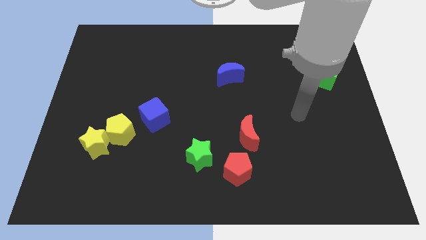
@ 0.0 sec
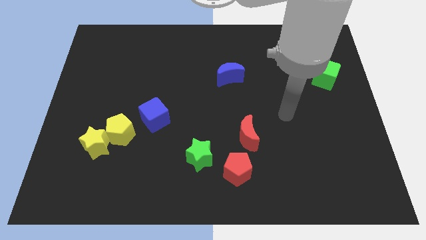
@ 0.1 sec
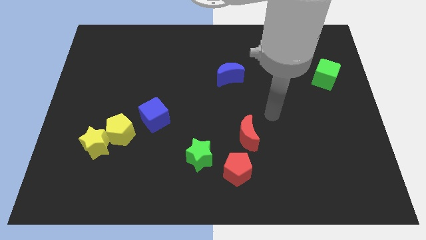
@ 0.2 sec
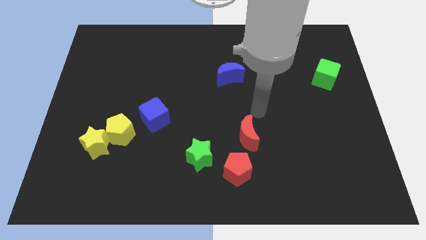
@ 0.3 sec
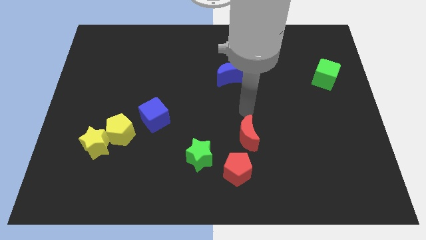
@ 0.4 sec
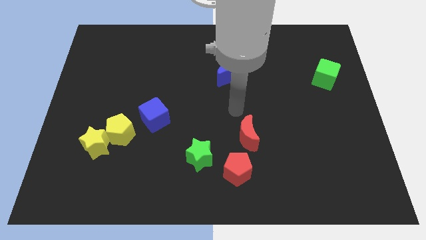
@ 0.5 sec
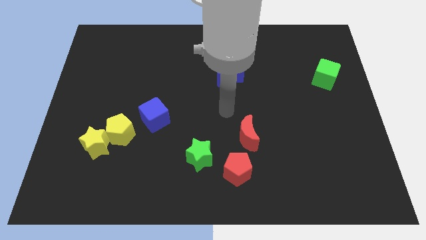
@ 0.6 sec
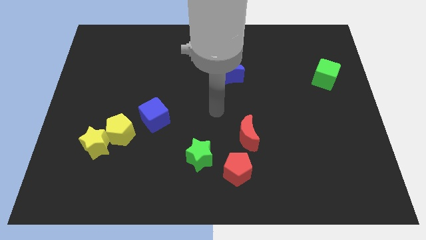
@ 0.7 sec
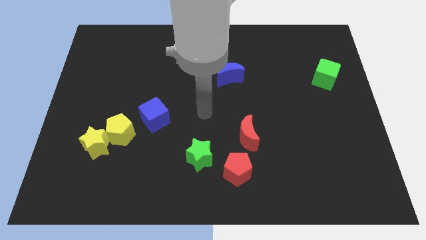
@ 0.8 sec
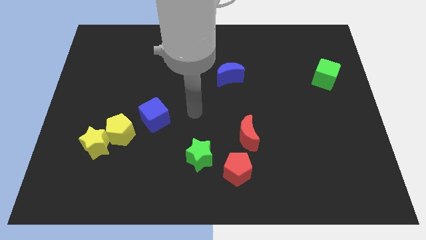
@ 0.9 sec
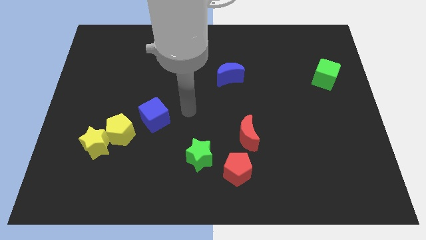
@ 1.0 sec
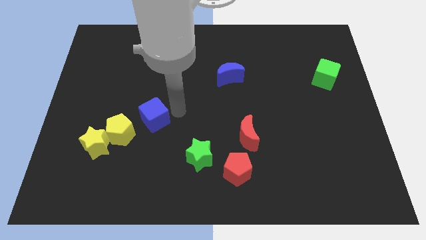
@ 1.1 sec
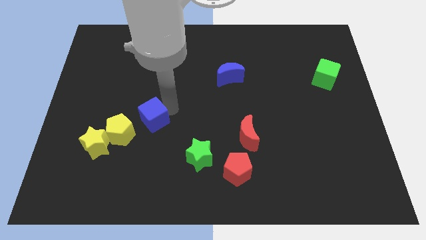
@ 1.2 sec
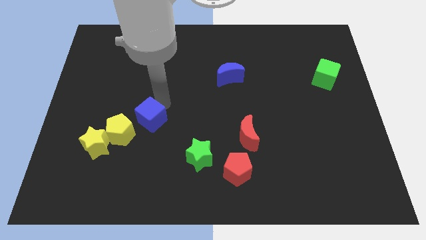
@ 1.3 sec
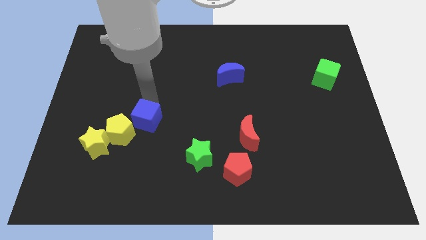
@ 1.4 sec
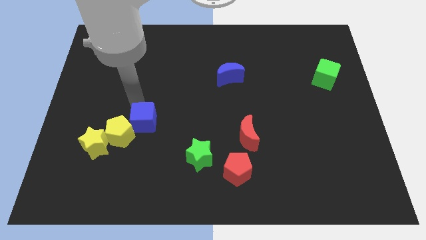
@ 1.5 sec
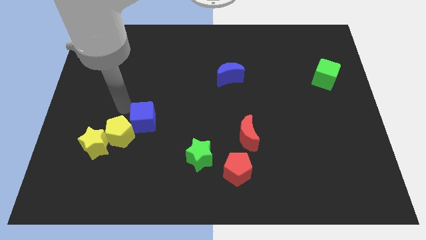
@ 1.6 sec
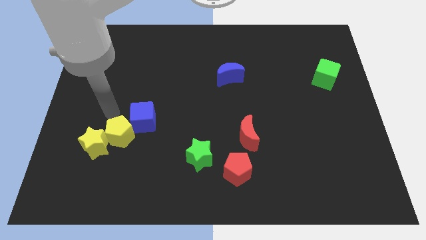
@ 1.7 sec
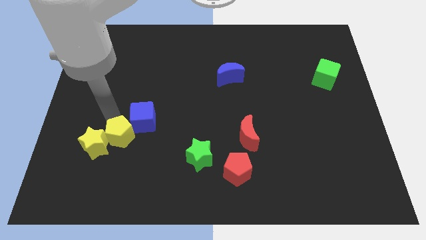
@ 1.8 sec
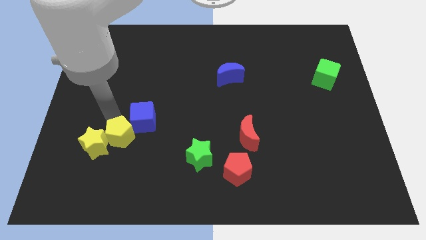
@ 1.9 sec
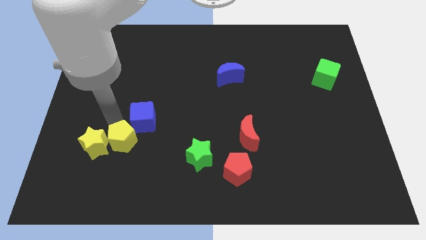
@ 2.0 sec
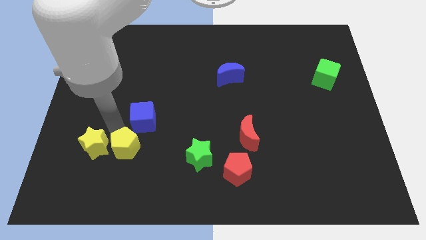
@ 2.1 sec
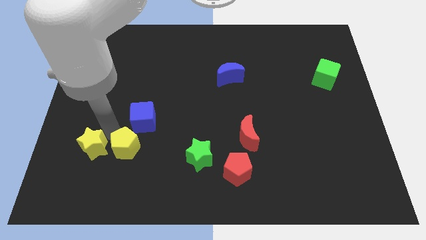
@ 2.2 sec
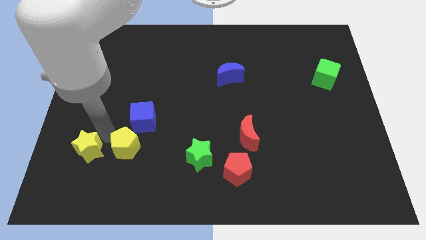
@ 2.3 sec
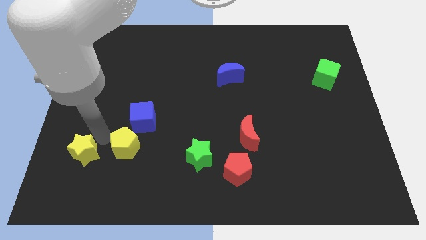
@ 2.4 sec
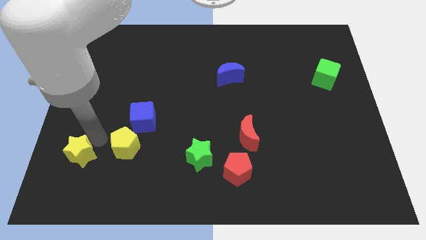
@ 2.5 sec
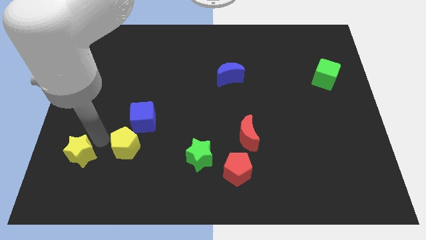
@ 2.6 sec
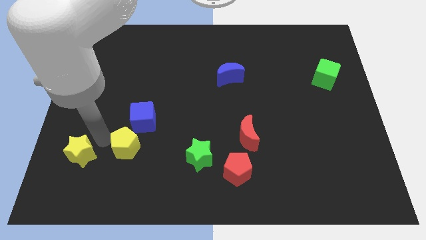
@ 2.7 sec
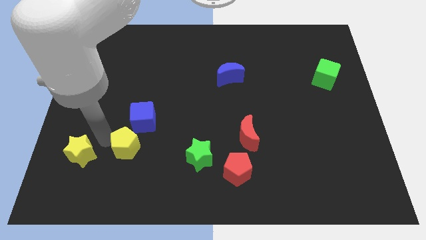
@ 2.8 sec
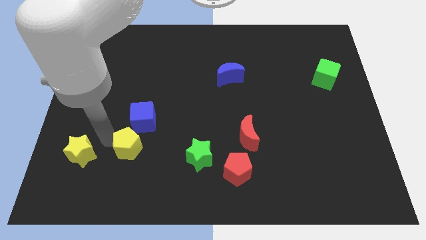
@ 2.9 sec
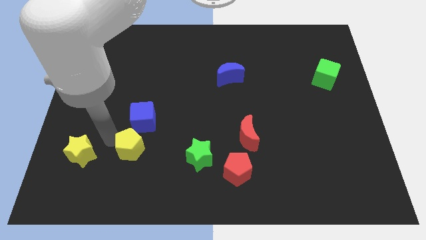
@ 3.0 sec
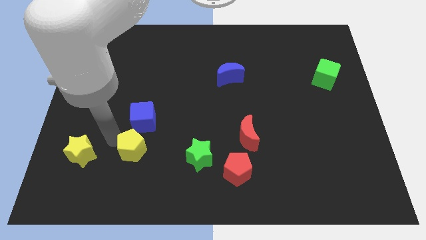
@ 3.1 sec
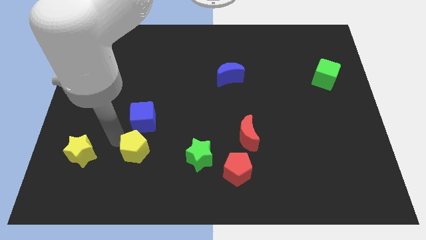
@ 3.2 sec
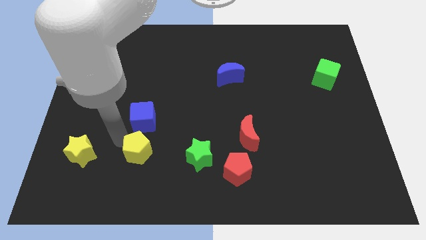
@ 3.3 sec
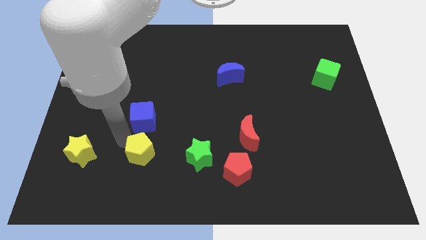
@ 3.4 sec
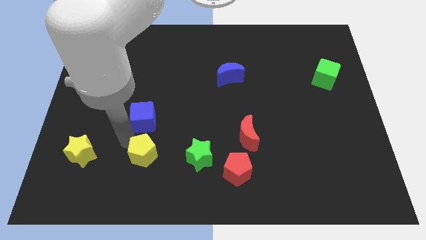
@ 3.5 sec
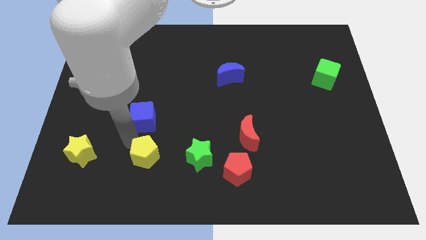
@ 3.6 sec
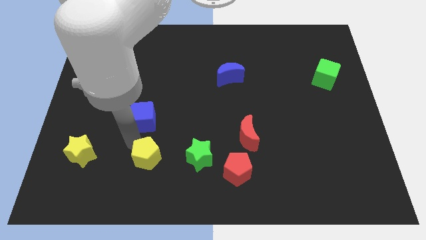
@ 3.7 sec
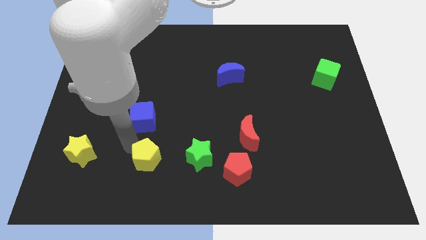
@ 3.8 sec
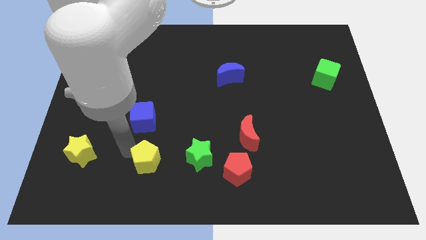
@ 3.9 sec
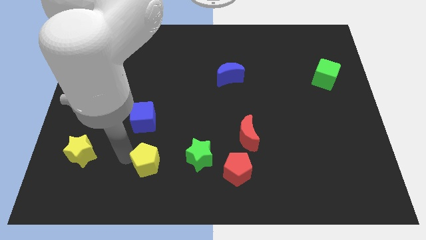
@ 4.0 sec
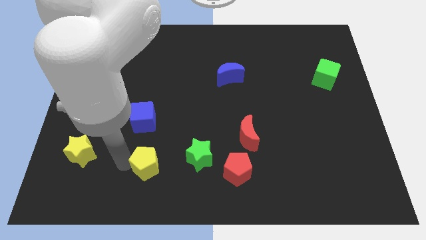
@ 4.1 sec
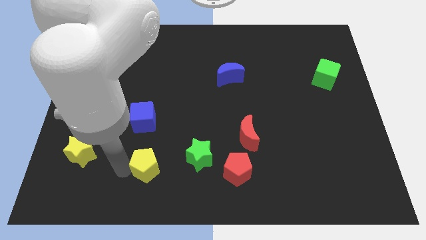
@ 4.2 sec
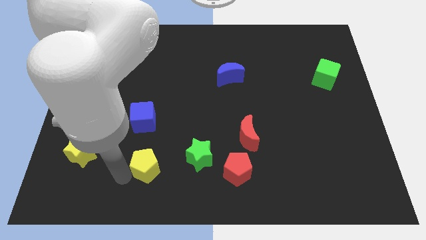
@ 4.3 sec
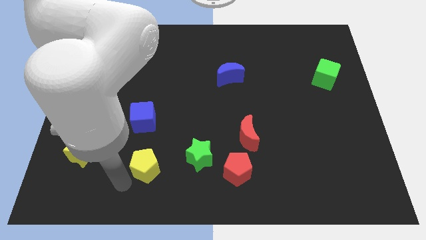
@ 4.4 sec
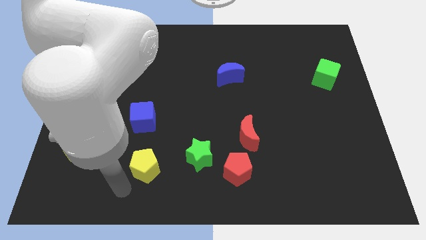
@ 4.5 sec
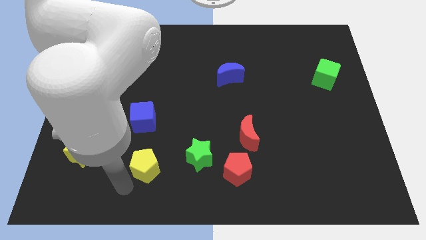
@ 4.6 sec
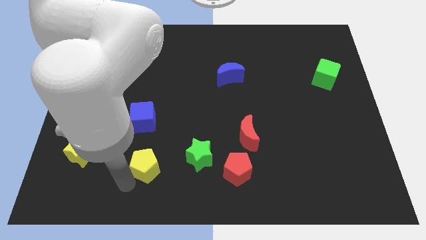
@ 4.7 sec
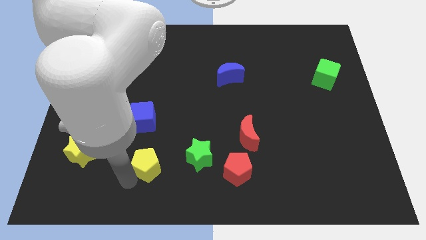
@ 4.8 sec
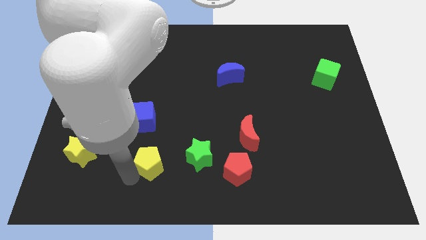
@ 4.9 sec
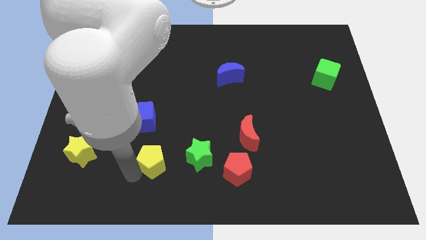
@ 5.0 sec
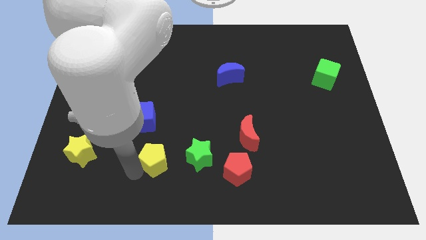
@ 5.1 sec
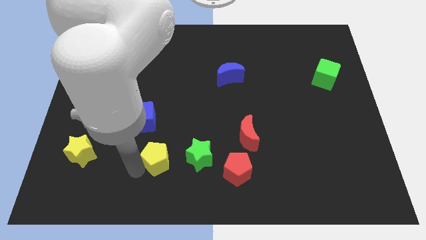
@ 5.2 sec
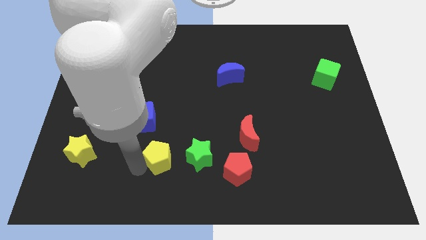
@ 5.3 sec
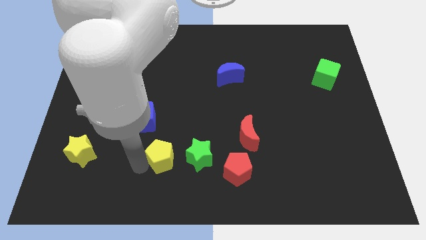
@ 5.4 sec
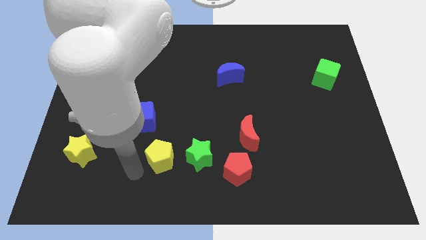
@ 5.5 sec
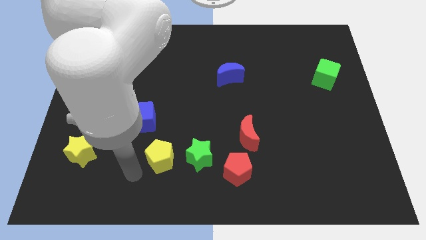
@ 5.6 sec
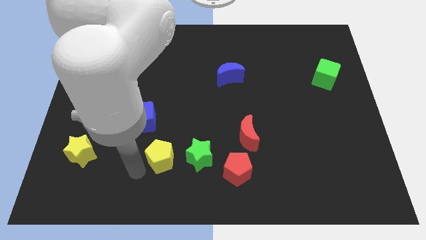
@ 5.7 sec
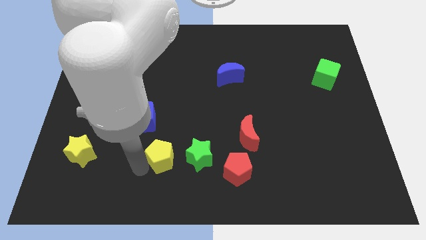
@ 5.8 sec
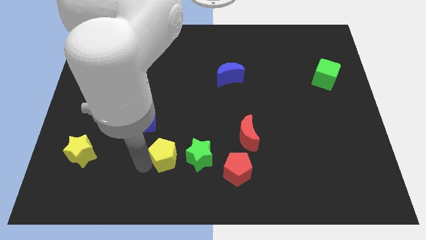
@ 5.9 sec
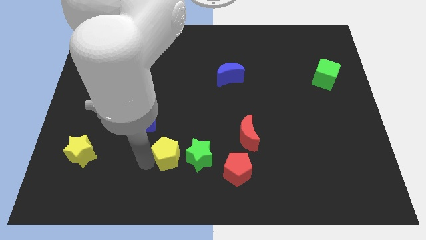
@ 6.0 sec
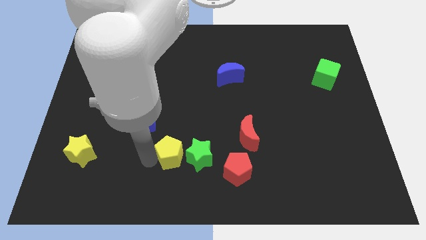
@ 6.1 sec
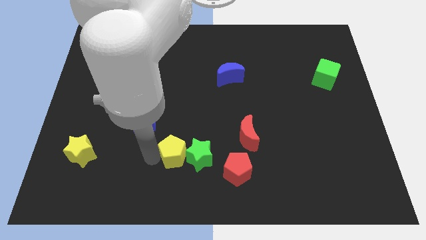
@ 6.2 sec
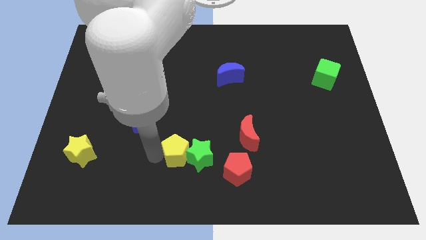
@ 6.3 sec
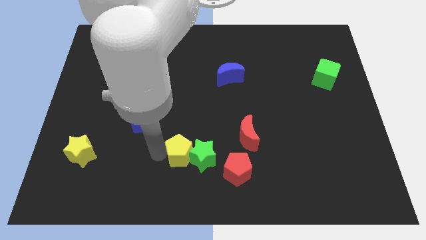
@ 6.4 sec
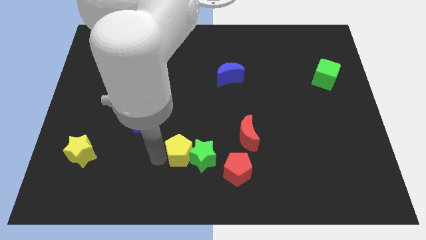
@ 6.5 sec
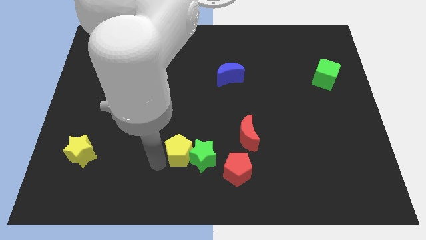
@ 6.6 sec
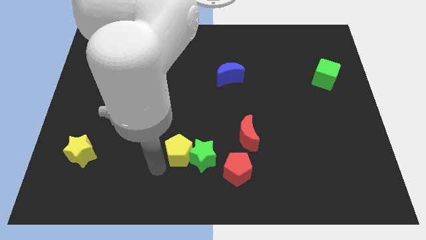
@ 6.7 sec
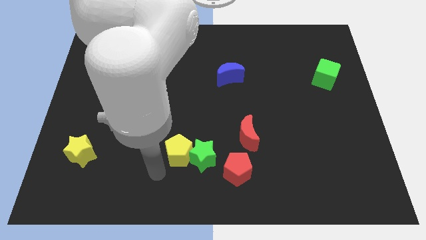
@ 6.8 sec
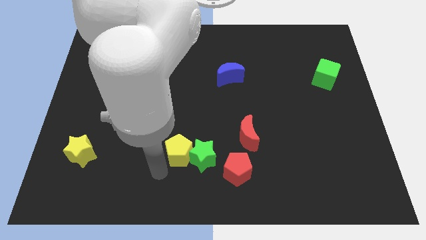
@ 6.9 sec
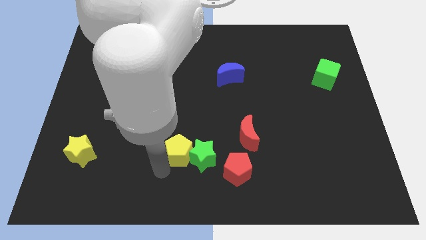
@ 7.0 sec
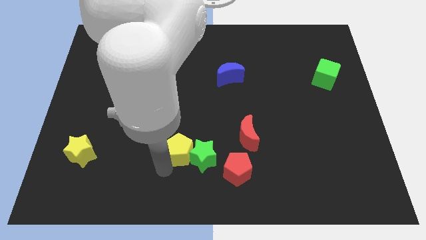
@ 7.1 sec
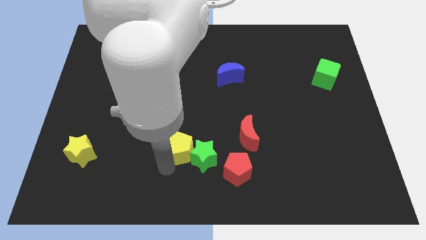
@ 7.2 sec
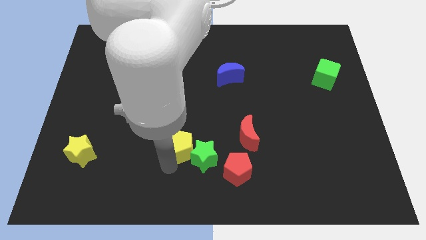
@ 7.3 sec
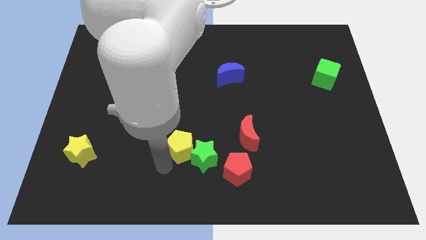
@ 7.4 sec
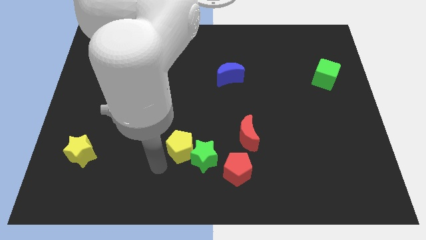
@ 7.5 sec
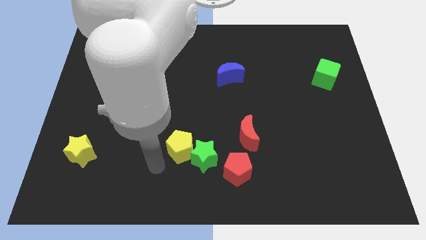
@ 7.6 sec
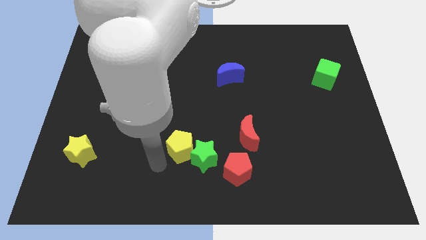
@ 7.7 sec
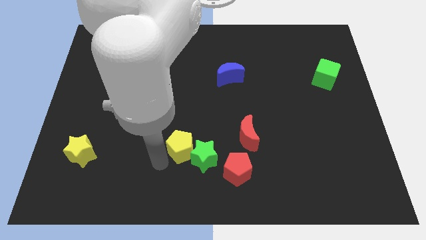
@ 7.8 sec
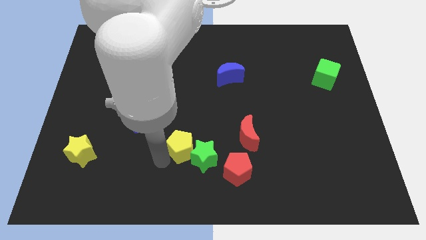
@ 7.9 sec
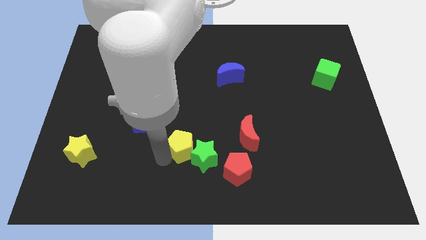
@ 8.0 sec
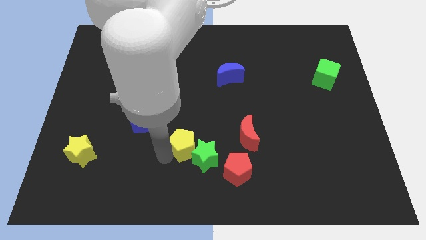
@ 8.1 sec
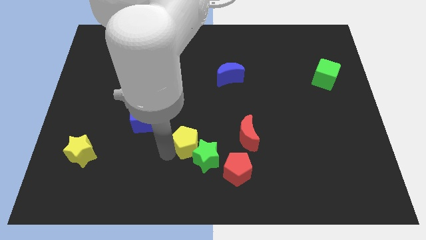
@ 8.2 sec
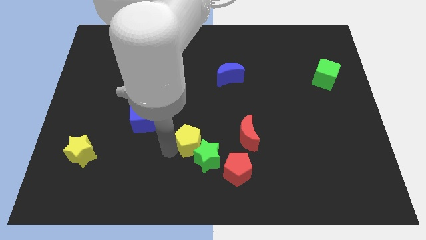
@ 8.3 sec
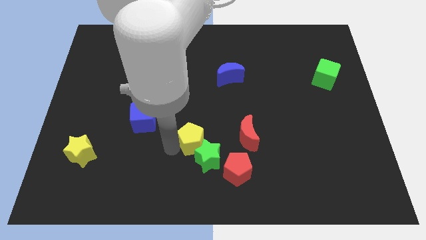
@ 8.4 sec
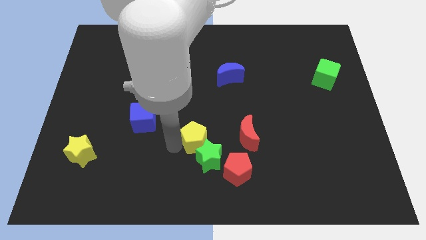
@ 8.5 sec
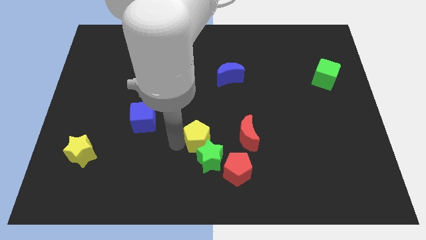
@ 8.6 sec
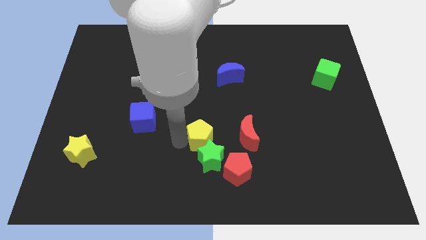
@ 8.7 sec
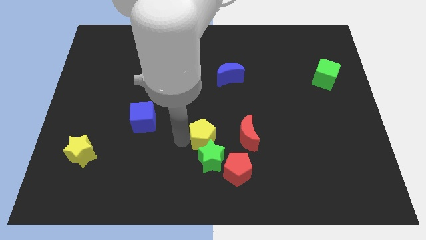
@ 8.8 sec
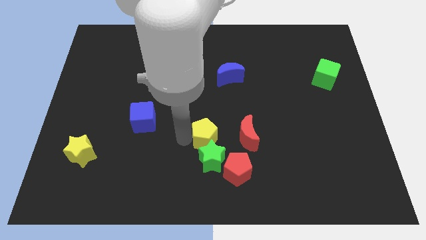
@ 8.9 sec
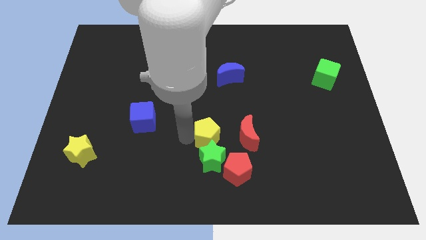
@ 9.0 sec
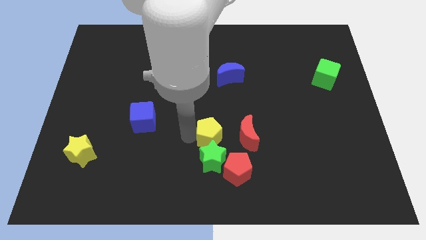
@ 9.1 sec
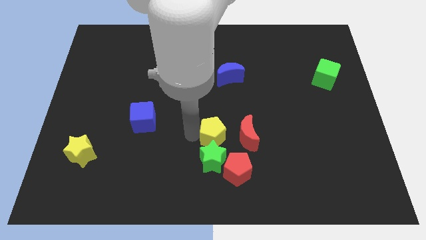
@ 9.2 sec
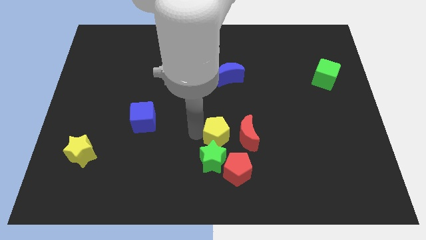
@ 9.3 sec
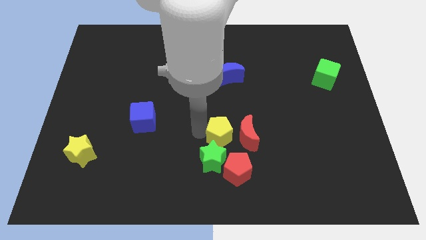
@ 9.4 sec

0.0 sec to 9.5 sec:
push the yellow pentagon next to the red moon
